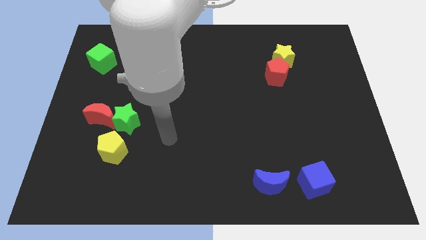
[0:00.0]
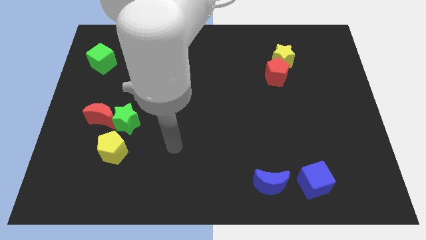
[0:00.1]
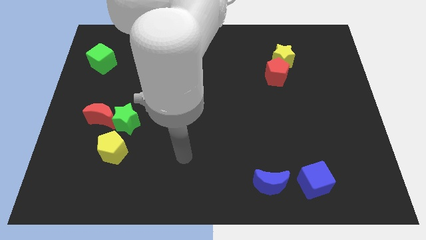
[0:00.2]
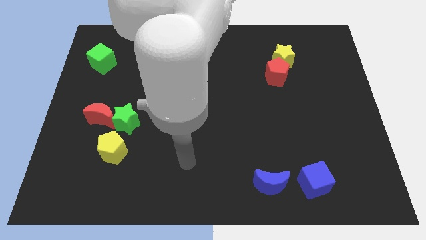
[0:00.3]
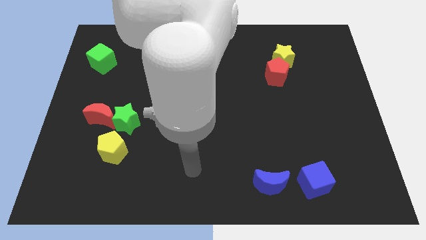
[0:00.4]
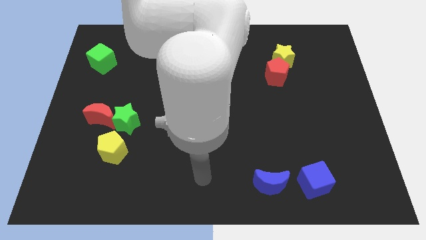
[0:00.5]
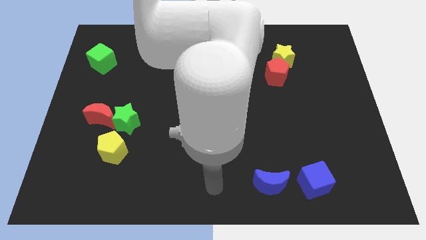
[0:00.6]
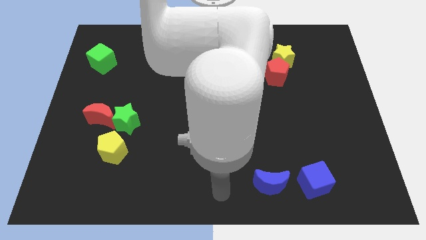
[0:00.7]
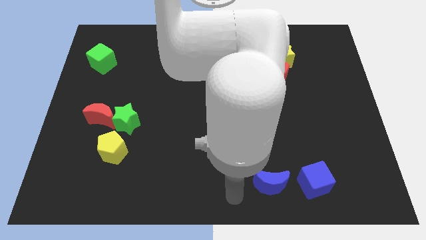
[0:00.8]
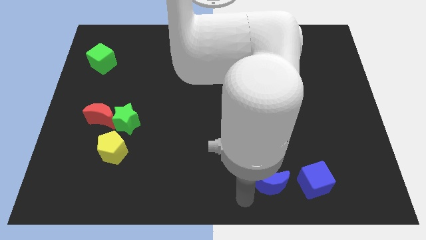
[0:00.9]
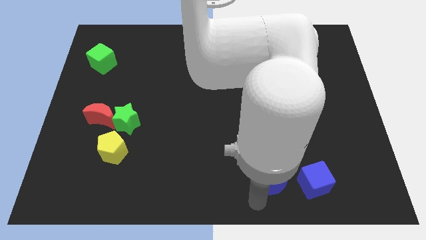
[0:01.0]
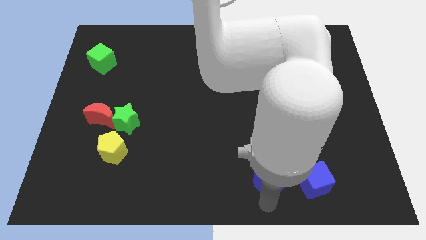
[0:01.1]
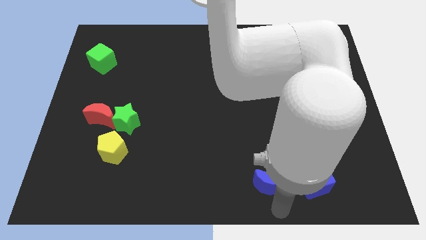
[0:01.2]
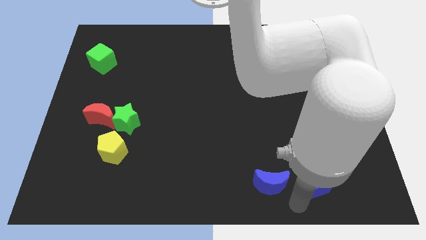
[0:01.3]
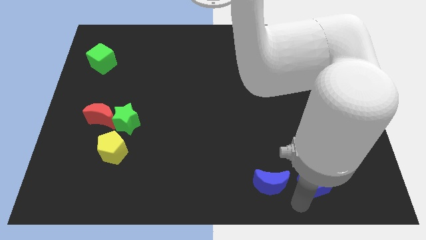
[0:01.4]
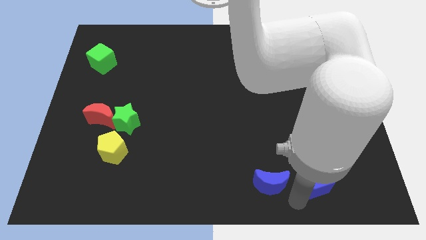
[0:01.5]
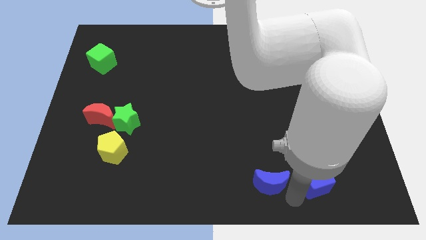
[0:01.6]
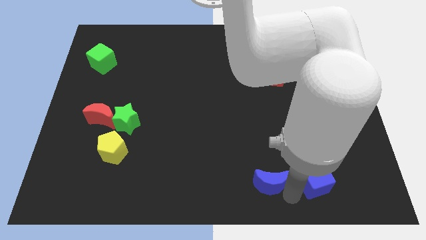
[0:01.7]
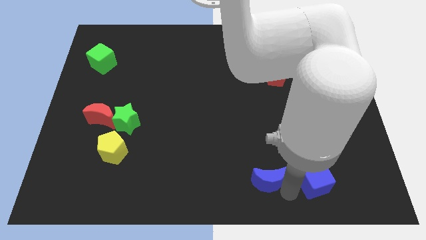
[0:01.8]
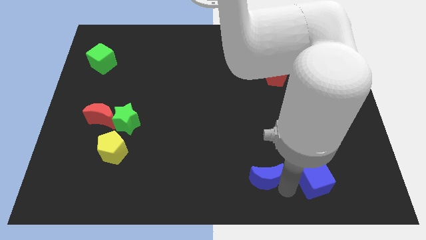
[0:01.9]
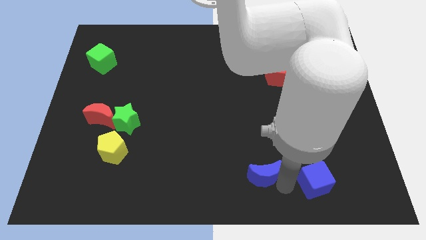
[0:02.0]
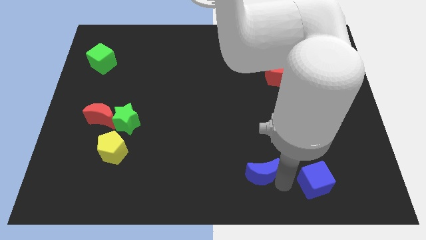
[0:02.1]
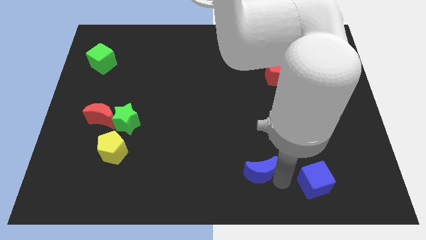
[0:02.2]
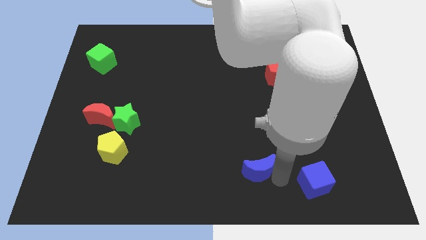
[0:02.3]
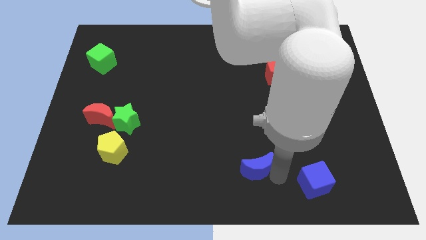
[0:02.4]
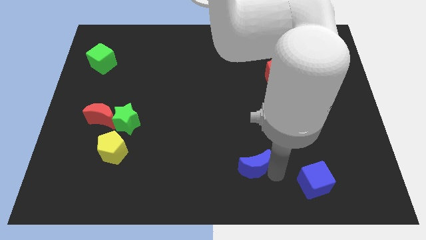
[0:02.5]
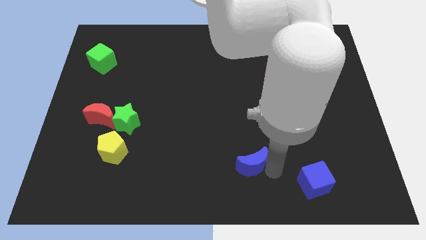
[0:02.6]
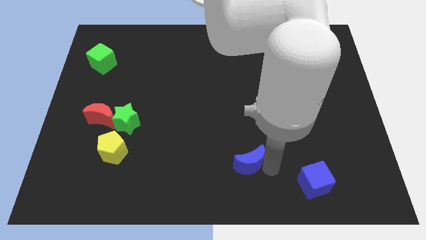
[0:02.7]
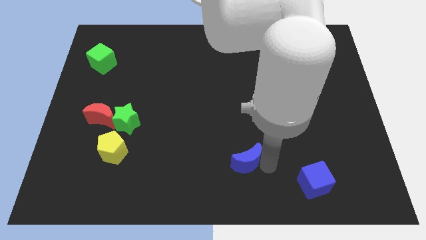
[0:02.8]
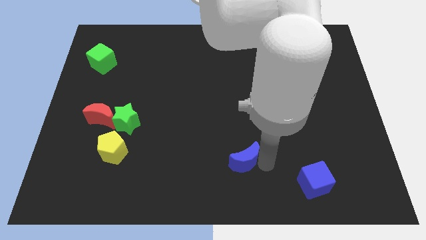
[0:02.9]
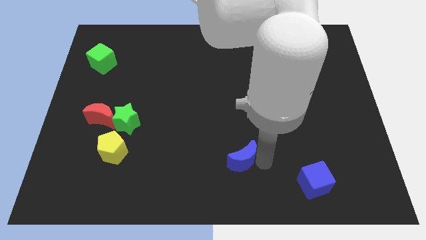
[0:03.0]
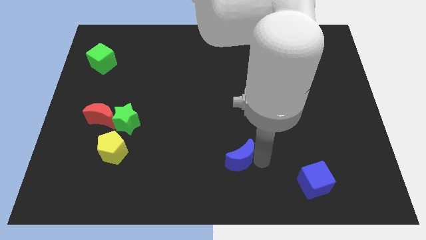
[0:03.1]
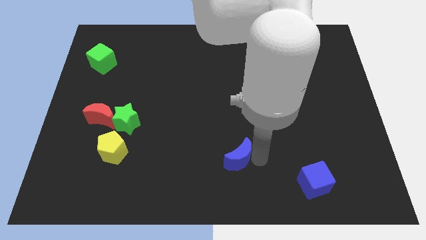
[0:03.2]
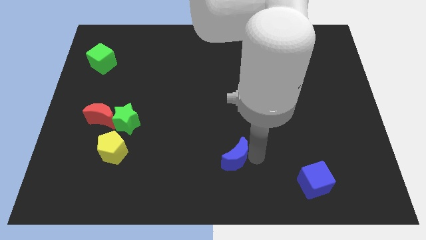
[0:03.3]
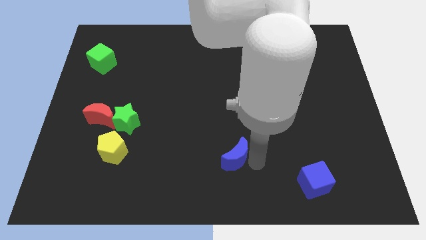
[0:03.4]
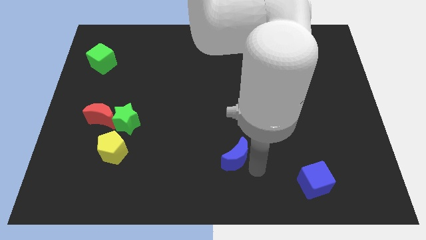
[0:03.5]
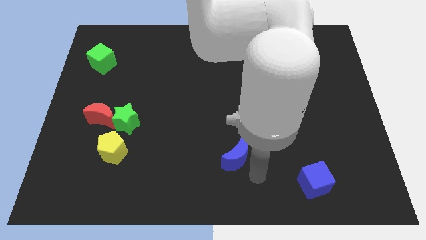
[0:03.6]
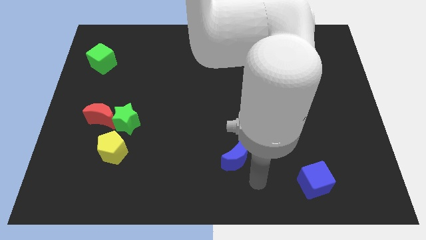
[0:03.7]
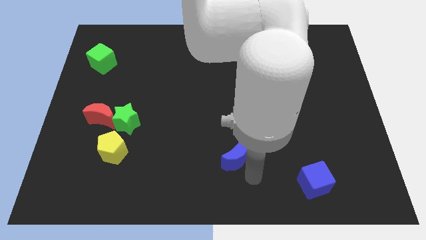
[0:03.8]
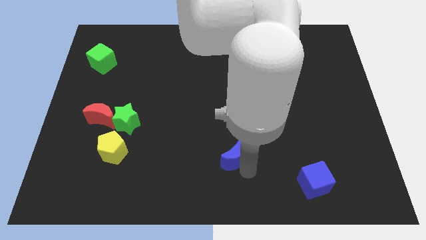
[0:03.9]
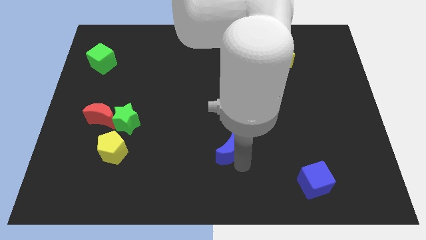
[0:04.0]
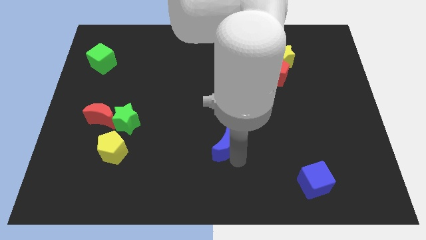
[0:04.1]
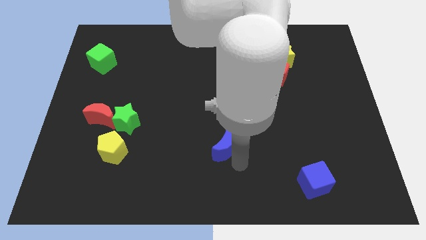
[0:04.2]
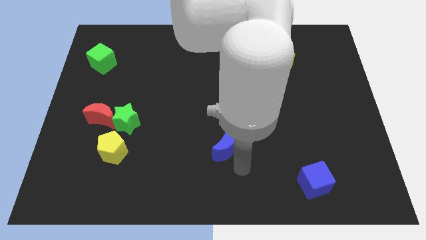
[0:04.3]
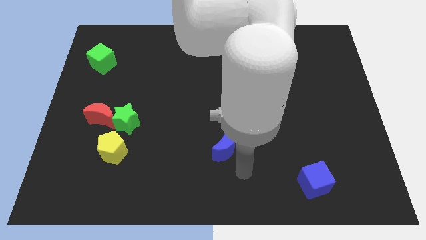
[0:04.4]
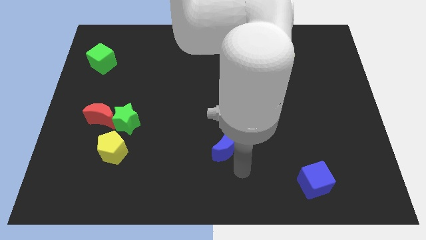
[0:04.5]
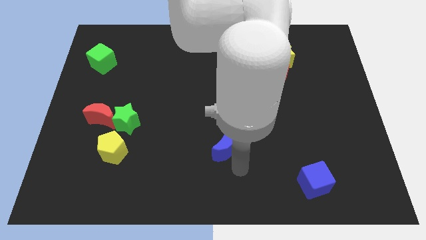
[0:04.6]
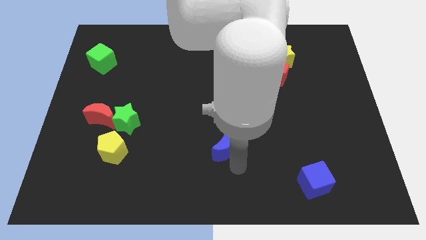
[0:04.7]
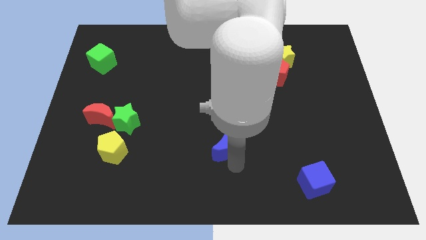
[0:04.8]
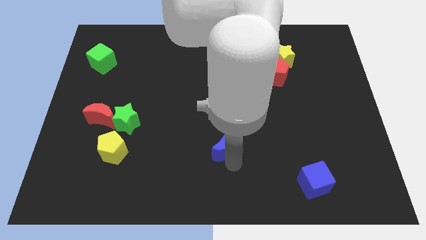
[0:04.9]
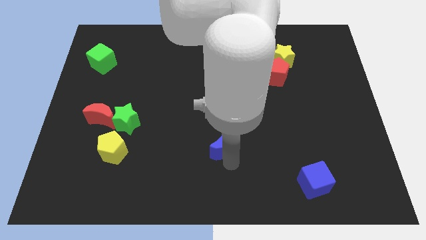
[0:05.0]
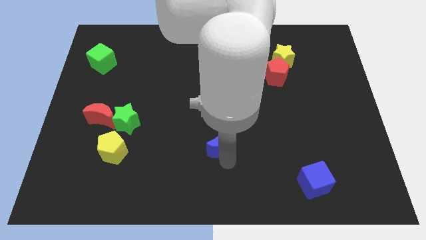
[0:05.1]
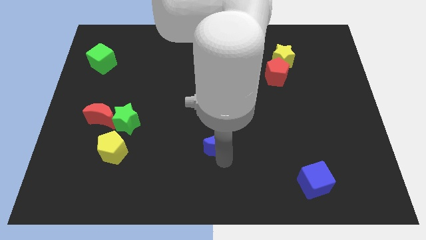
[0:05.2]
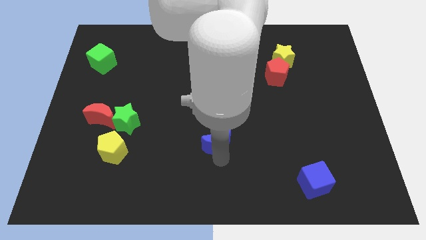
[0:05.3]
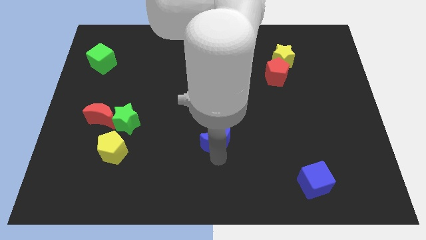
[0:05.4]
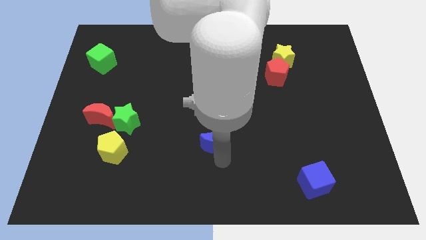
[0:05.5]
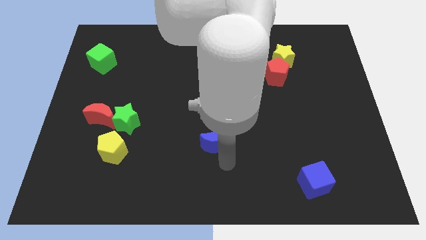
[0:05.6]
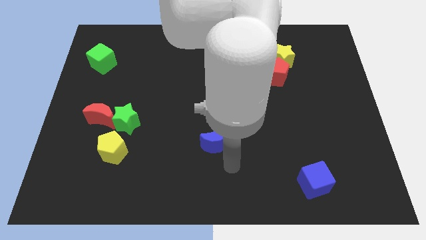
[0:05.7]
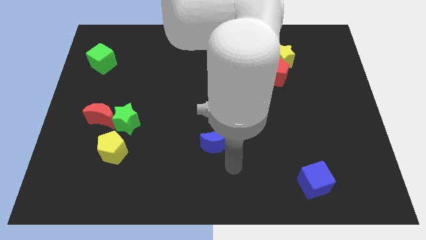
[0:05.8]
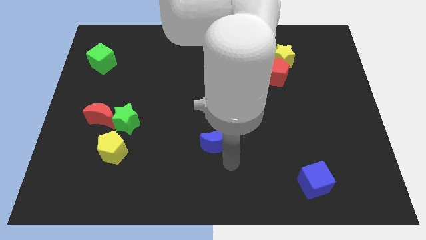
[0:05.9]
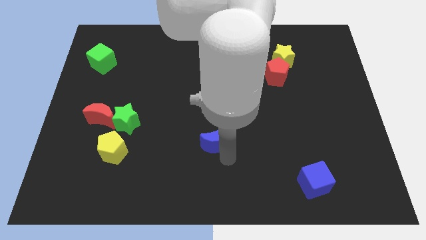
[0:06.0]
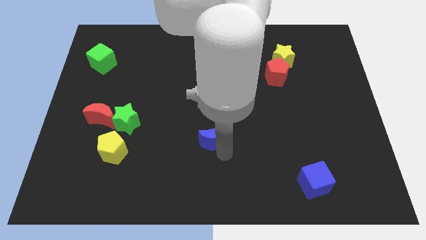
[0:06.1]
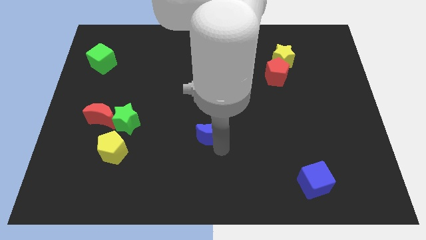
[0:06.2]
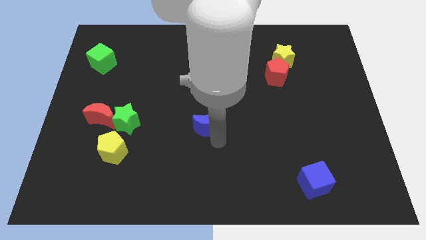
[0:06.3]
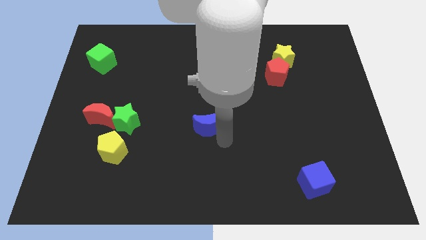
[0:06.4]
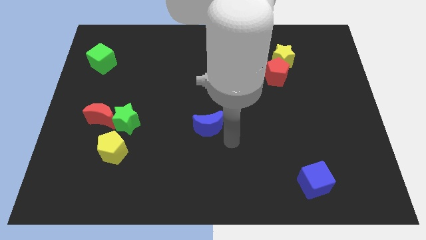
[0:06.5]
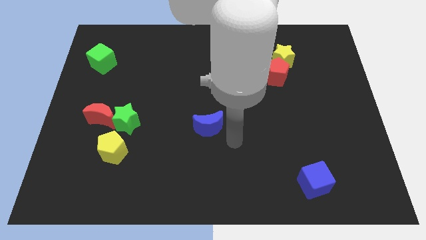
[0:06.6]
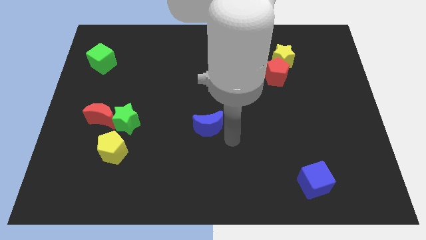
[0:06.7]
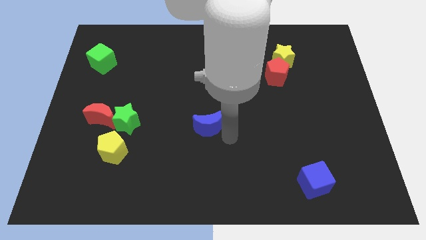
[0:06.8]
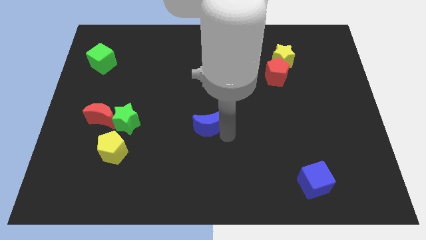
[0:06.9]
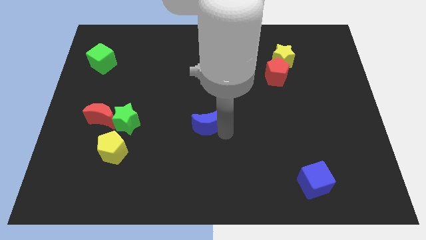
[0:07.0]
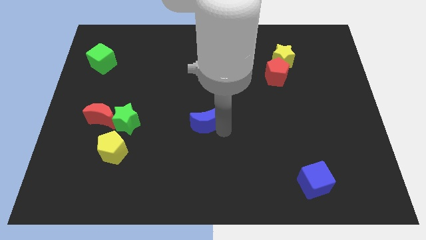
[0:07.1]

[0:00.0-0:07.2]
push the blue moon upwards and then left

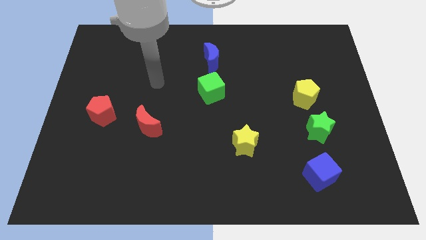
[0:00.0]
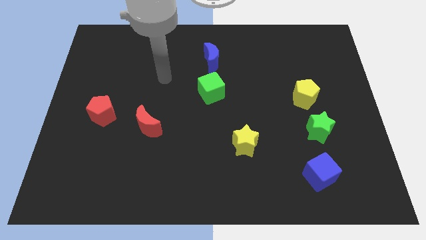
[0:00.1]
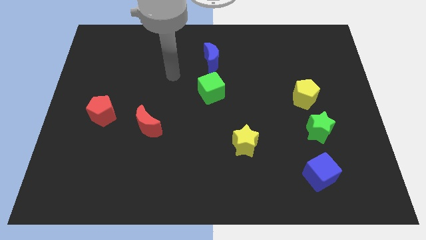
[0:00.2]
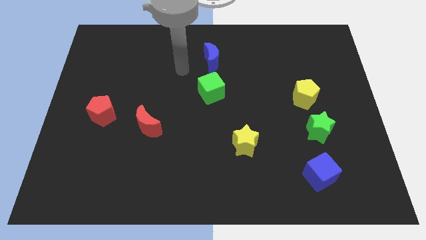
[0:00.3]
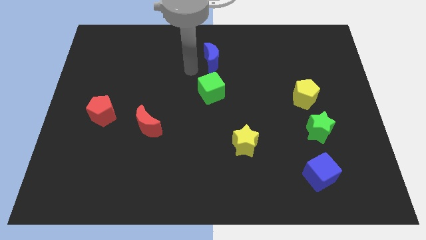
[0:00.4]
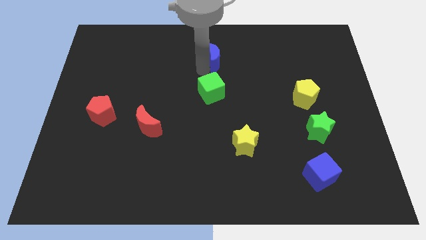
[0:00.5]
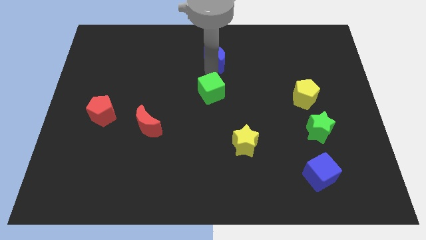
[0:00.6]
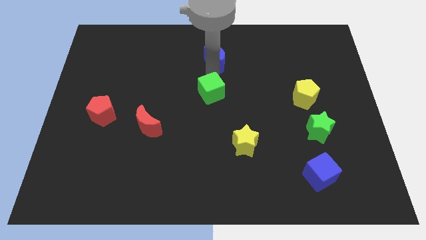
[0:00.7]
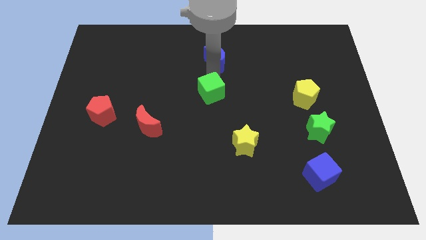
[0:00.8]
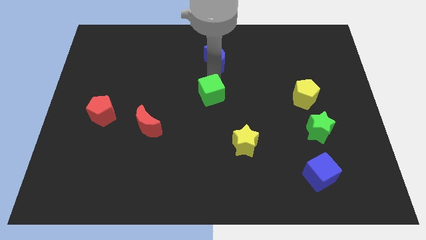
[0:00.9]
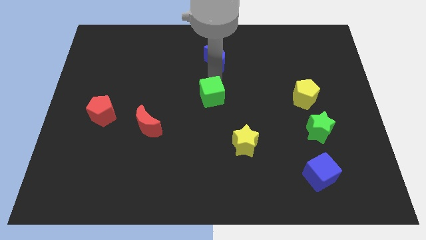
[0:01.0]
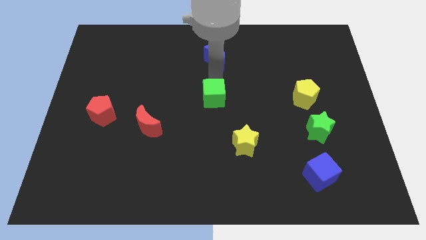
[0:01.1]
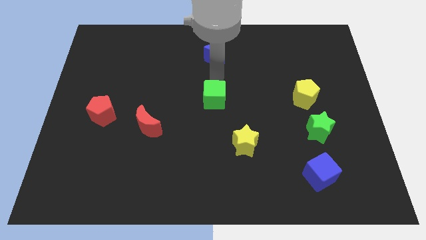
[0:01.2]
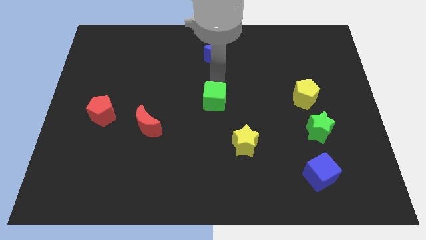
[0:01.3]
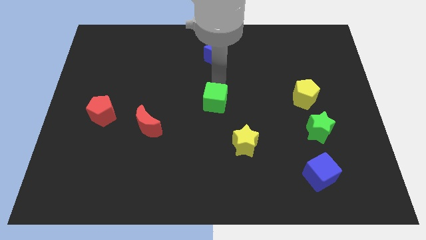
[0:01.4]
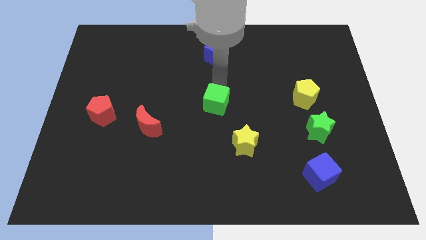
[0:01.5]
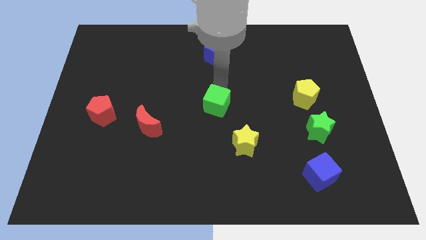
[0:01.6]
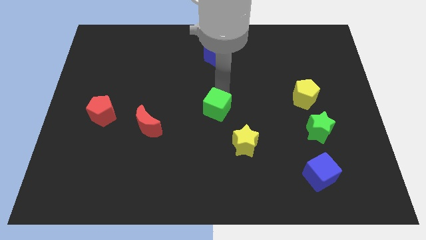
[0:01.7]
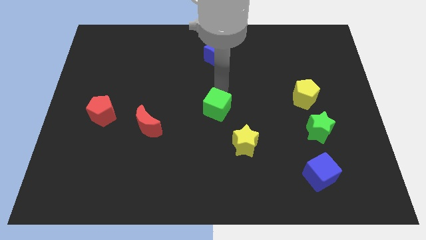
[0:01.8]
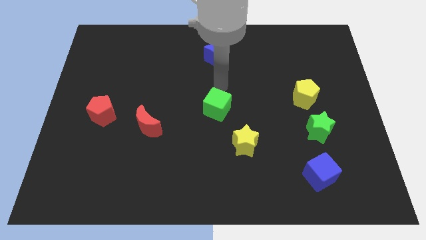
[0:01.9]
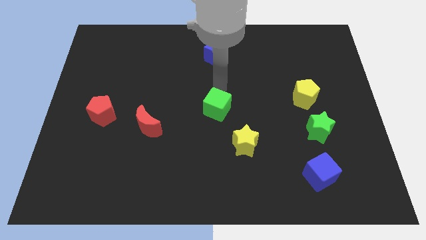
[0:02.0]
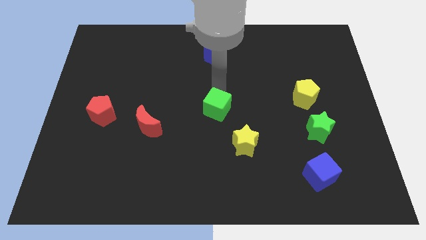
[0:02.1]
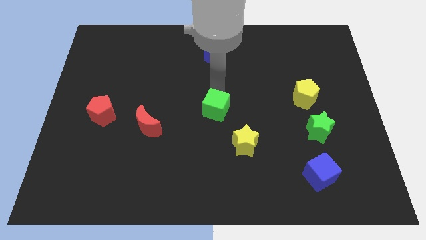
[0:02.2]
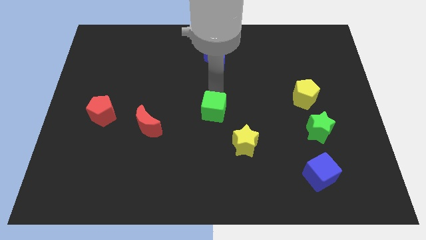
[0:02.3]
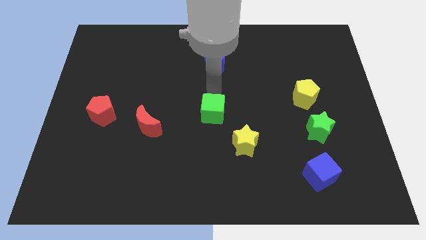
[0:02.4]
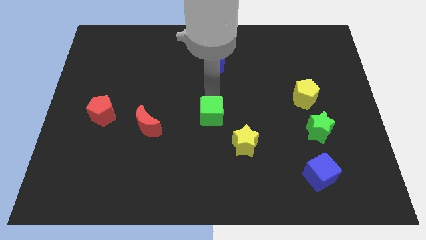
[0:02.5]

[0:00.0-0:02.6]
push the green cube somewhat downwards
